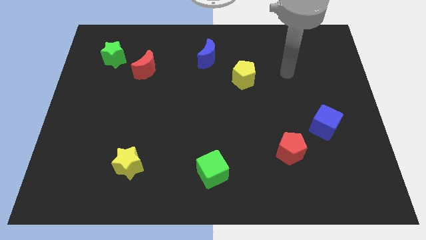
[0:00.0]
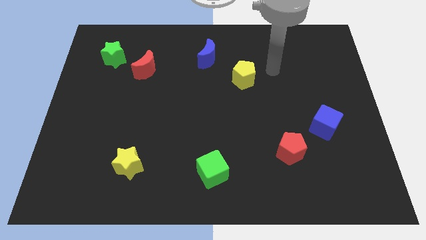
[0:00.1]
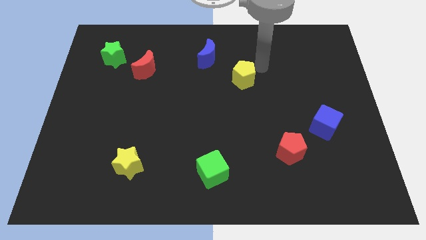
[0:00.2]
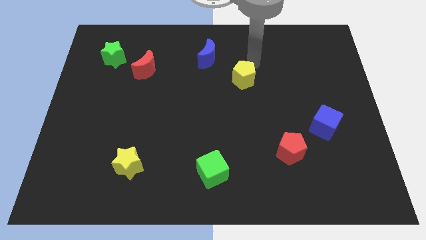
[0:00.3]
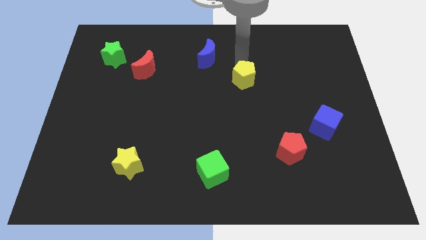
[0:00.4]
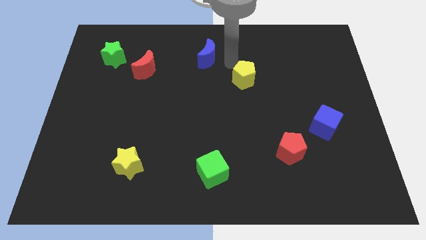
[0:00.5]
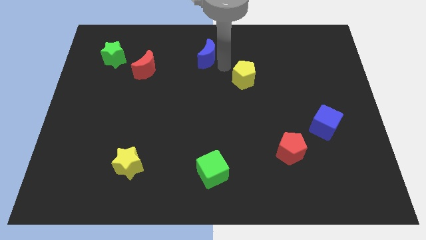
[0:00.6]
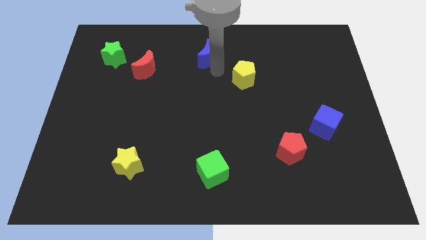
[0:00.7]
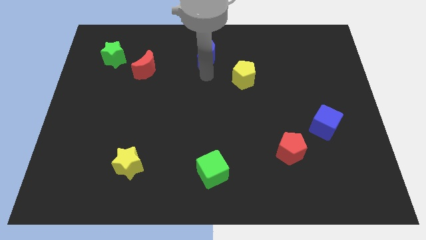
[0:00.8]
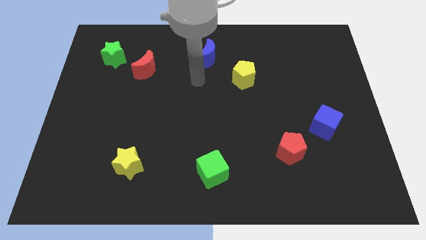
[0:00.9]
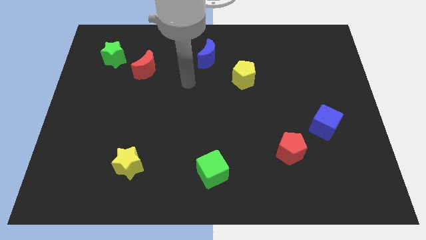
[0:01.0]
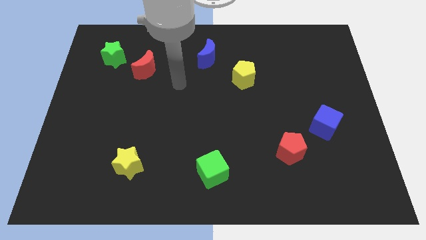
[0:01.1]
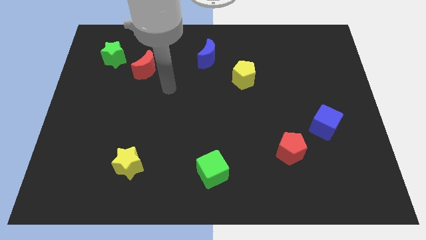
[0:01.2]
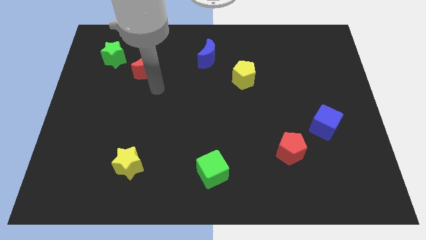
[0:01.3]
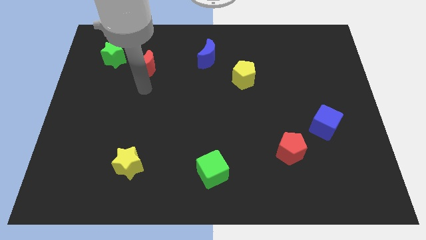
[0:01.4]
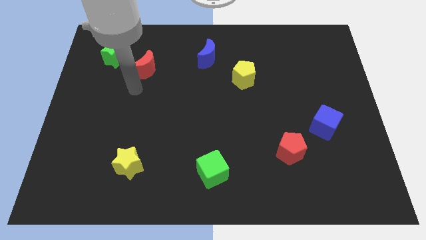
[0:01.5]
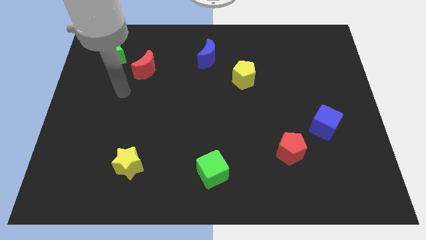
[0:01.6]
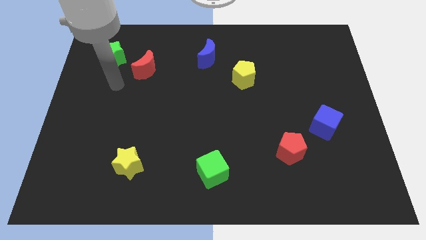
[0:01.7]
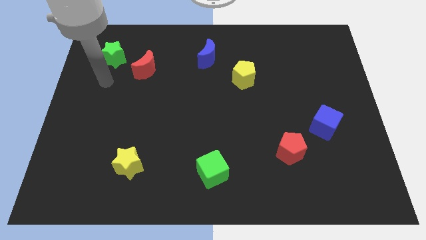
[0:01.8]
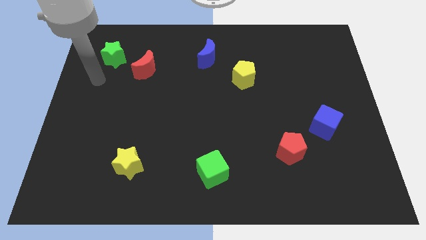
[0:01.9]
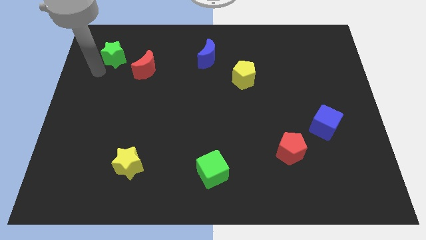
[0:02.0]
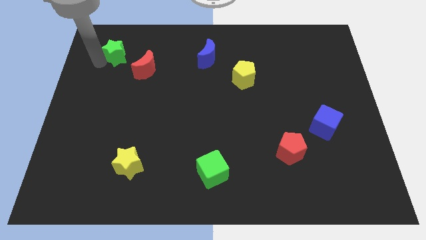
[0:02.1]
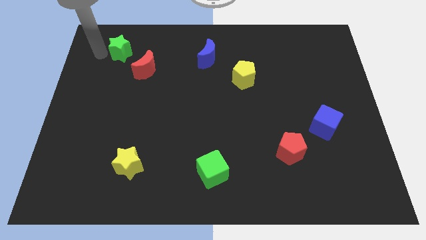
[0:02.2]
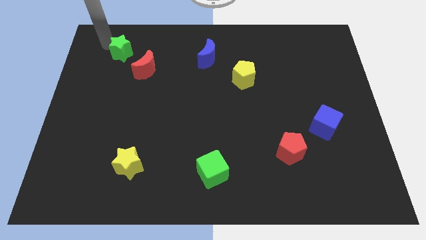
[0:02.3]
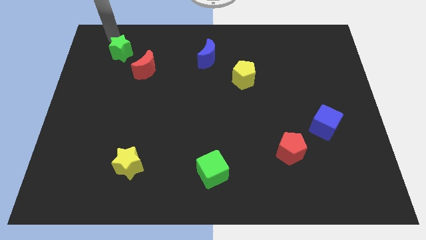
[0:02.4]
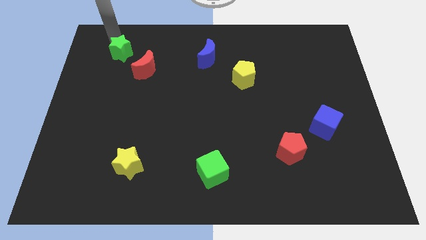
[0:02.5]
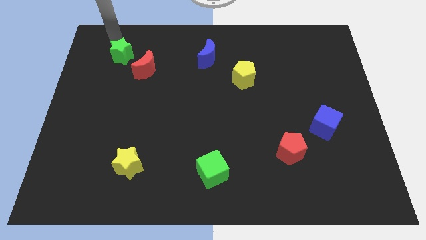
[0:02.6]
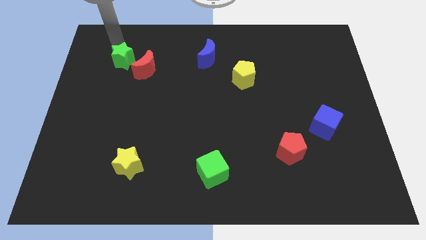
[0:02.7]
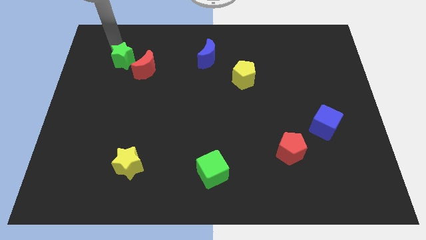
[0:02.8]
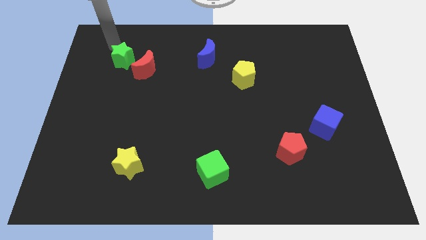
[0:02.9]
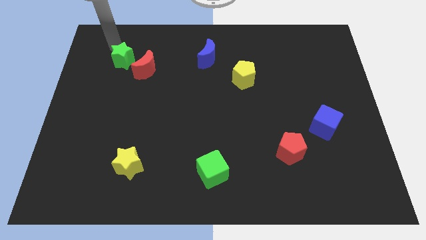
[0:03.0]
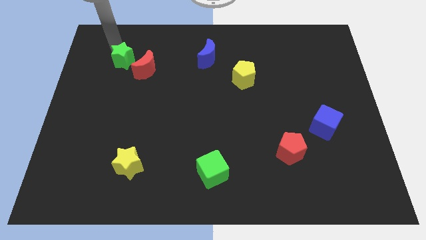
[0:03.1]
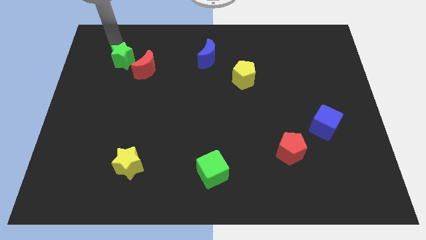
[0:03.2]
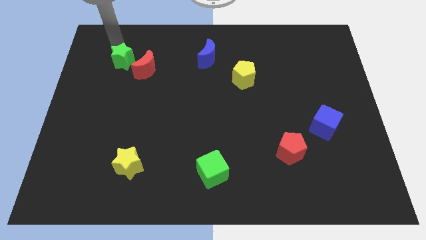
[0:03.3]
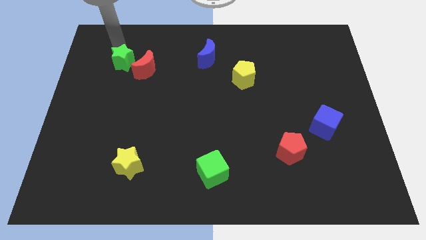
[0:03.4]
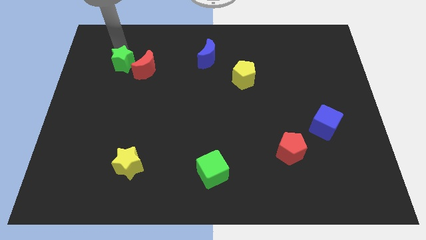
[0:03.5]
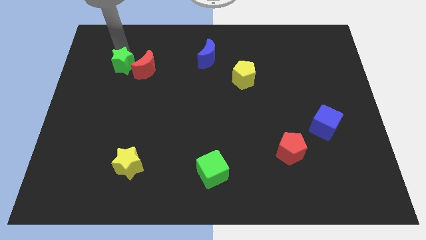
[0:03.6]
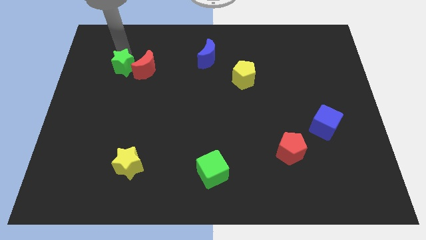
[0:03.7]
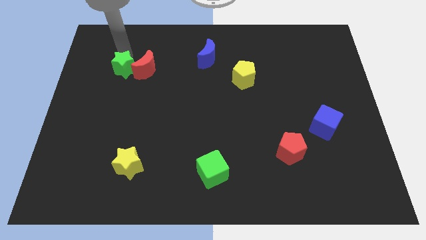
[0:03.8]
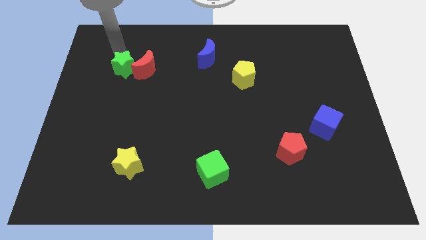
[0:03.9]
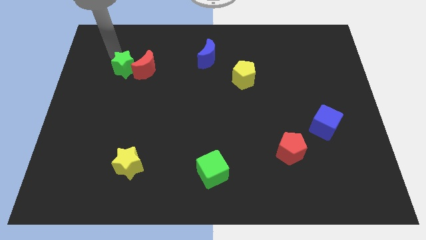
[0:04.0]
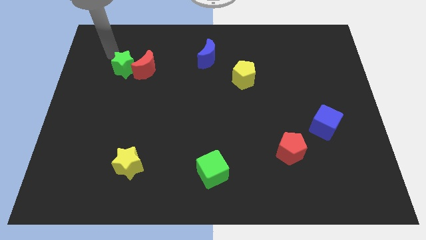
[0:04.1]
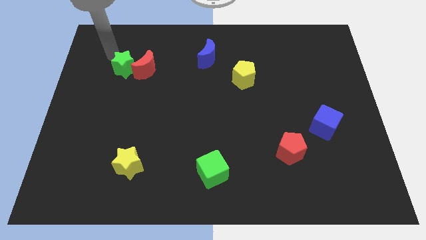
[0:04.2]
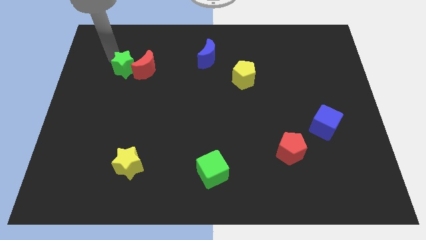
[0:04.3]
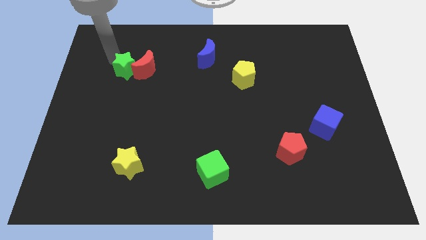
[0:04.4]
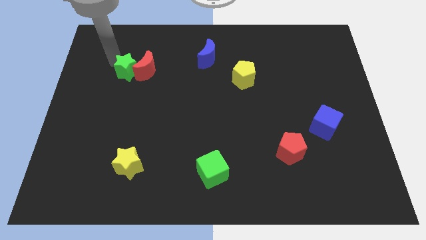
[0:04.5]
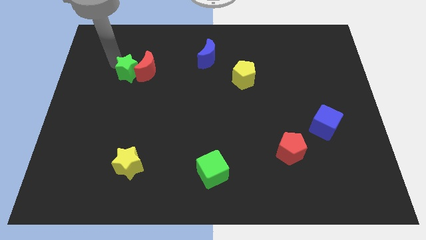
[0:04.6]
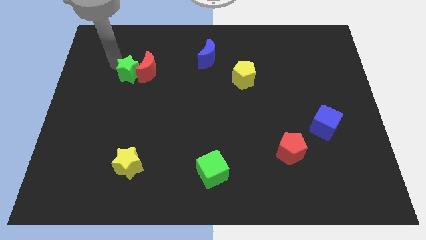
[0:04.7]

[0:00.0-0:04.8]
push the green star downwards and then to the right slightly
